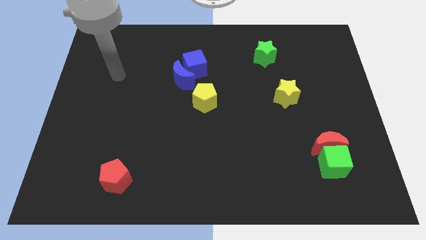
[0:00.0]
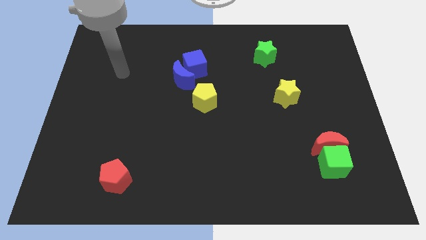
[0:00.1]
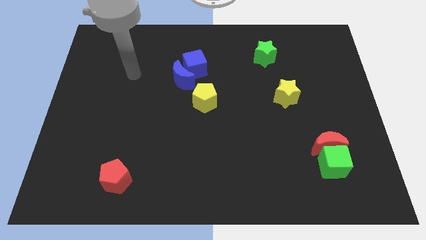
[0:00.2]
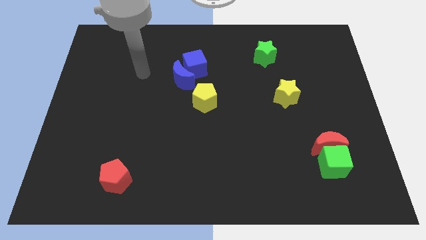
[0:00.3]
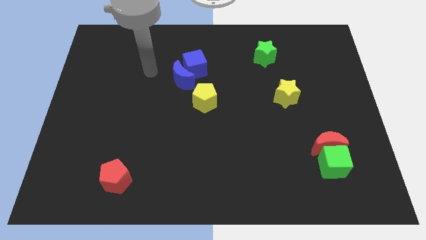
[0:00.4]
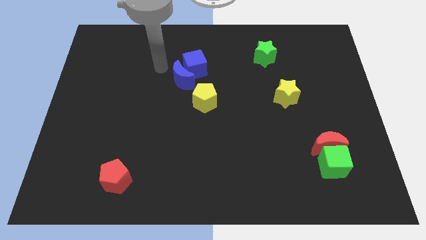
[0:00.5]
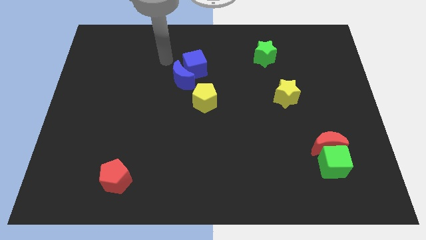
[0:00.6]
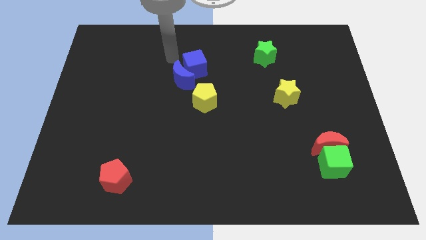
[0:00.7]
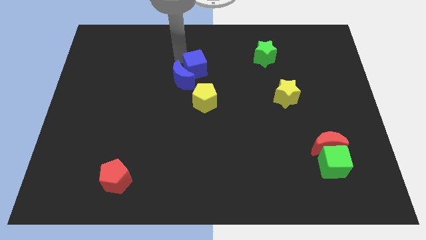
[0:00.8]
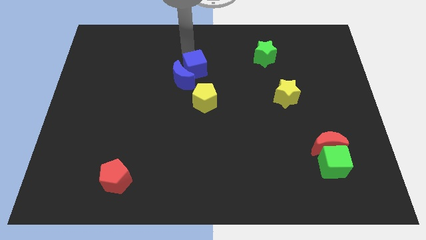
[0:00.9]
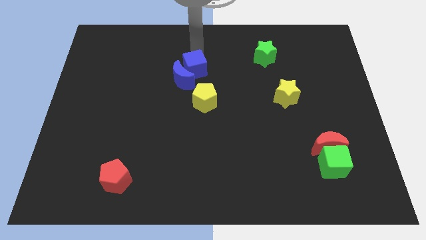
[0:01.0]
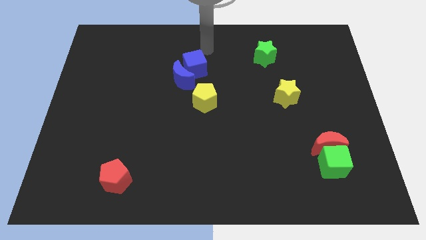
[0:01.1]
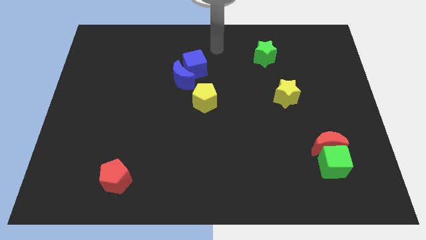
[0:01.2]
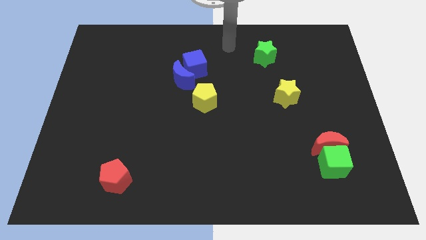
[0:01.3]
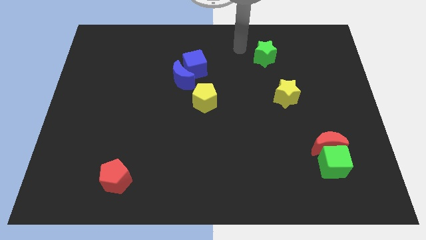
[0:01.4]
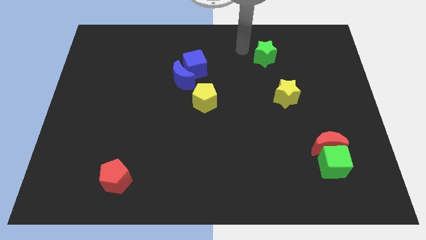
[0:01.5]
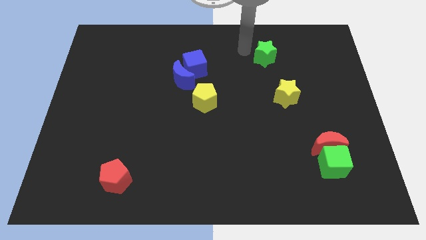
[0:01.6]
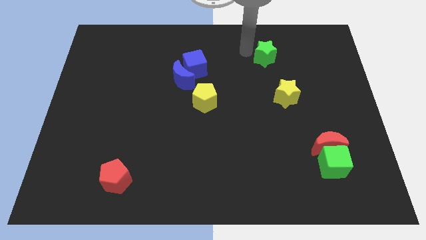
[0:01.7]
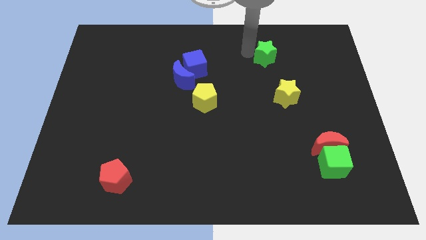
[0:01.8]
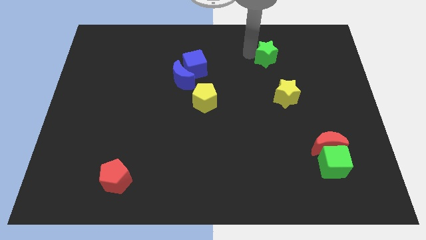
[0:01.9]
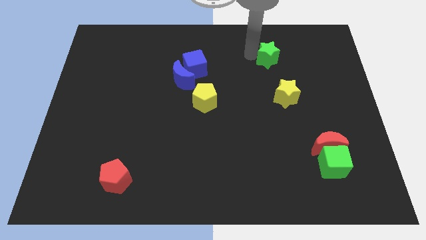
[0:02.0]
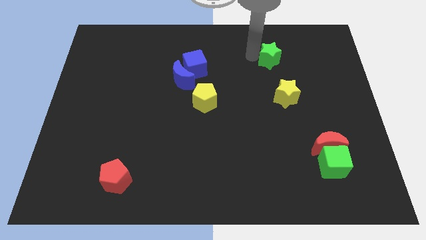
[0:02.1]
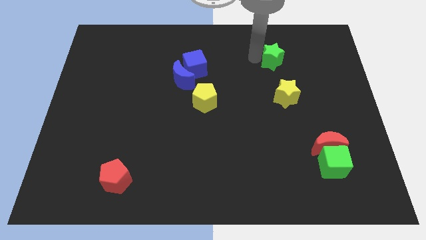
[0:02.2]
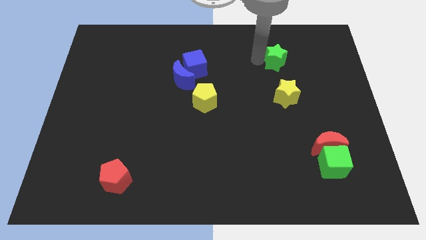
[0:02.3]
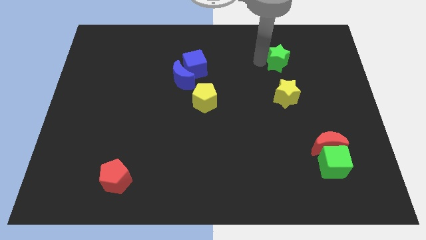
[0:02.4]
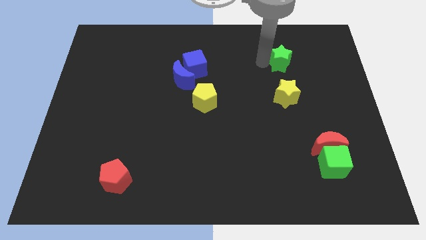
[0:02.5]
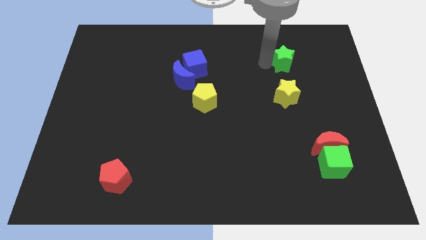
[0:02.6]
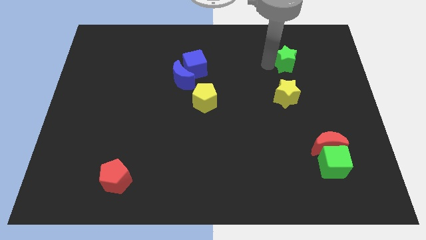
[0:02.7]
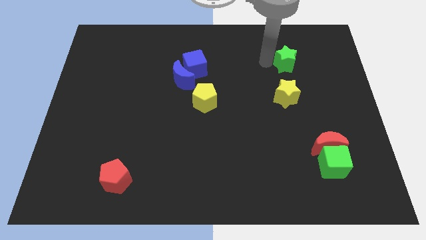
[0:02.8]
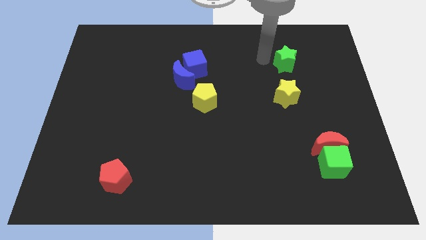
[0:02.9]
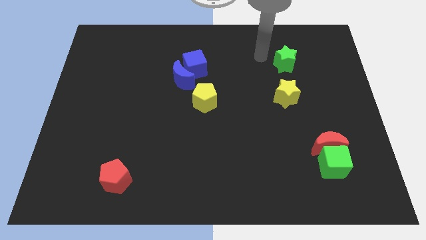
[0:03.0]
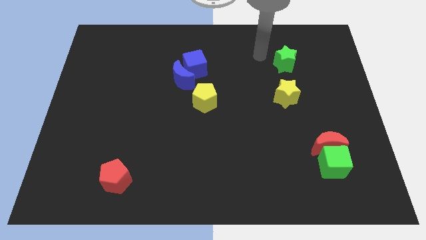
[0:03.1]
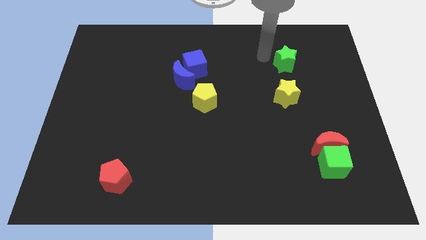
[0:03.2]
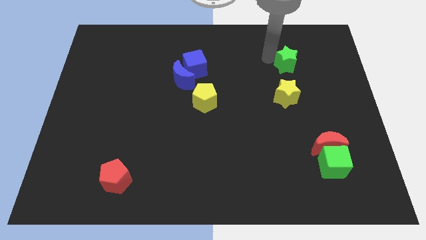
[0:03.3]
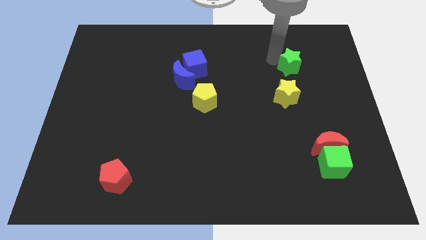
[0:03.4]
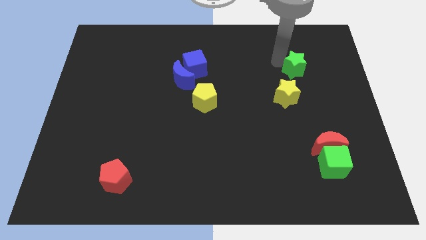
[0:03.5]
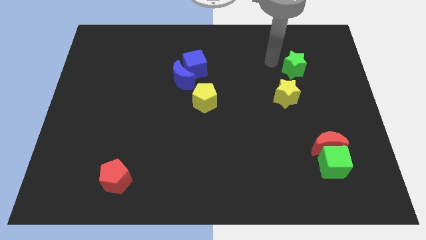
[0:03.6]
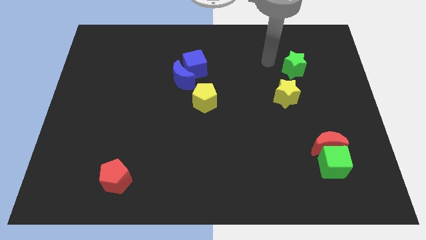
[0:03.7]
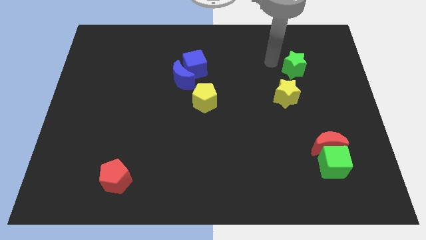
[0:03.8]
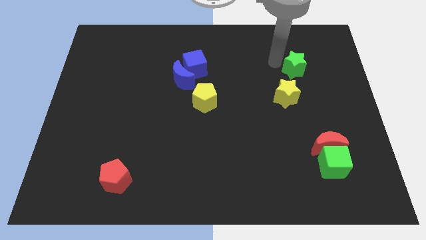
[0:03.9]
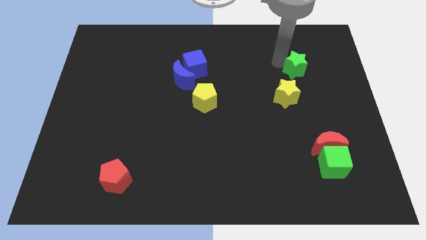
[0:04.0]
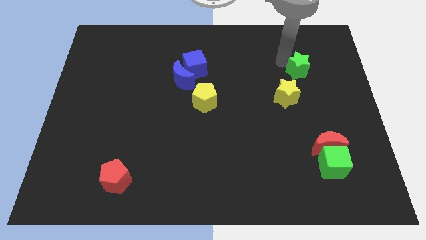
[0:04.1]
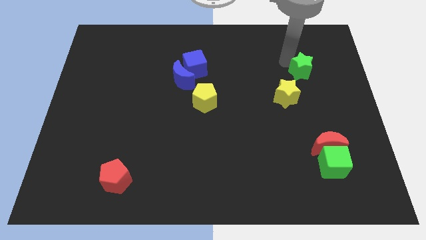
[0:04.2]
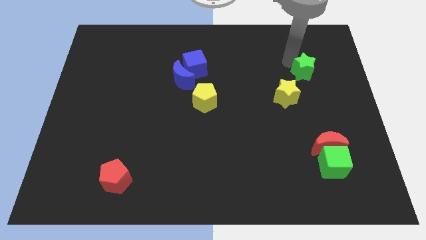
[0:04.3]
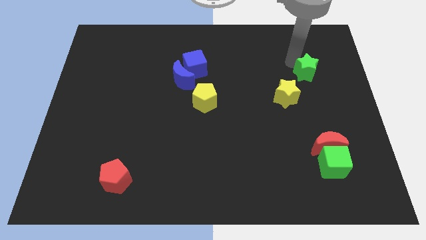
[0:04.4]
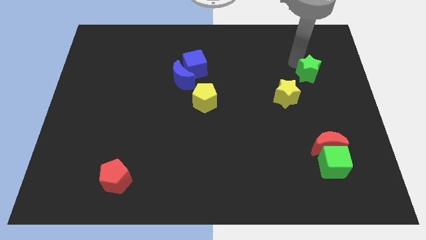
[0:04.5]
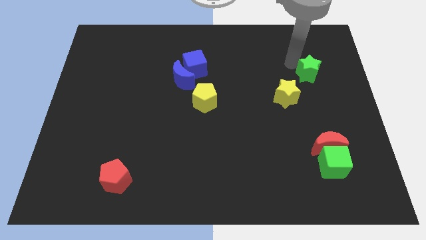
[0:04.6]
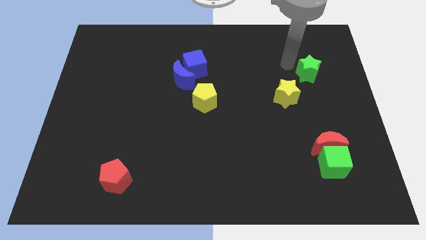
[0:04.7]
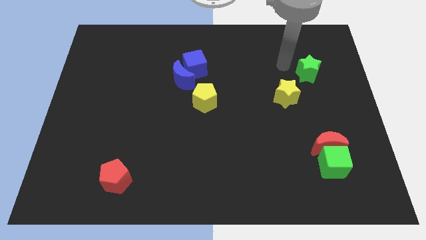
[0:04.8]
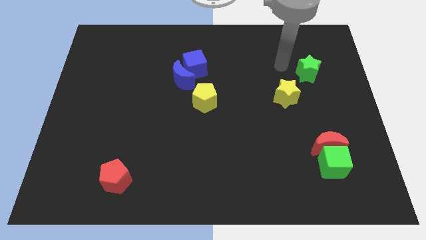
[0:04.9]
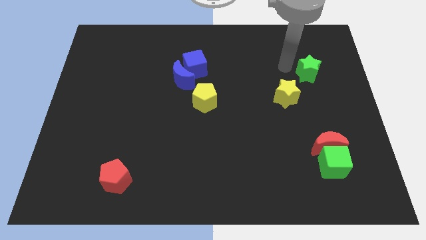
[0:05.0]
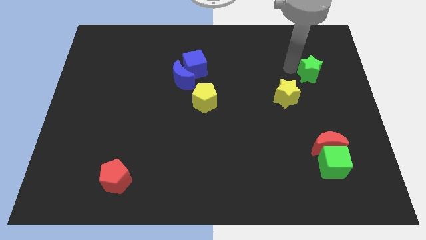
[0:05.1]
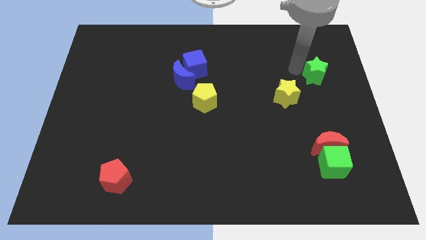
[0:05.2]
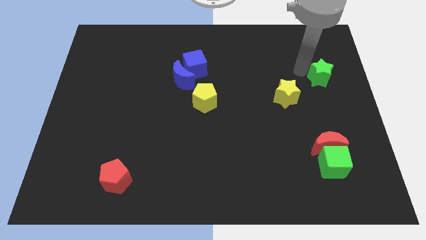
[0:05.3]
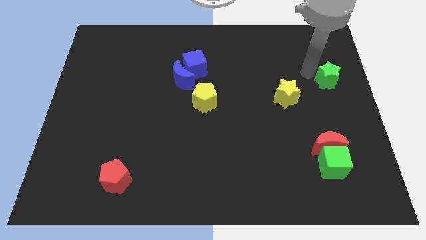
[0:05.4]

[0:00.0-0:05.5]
slide the green star to the right side of the board

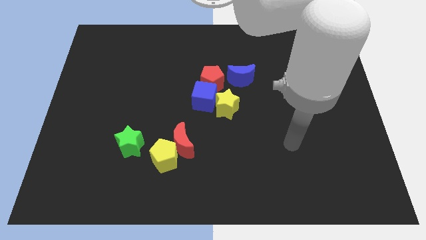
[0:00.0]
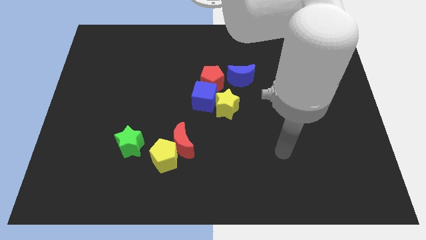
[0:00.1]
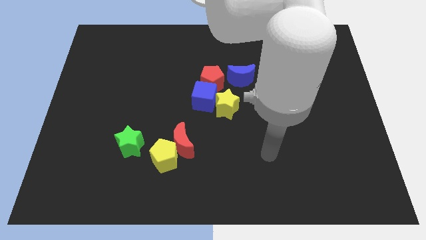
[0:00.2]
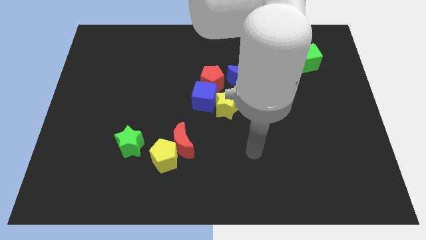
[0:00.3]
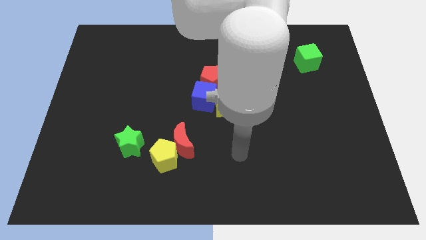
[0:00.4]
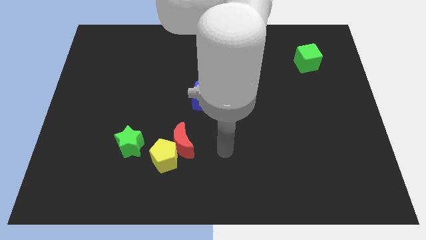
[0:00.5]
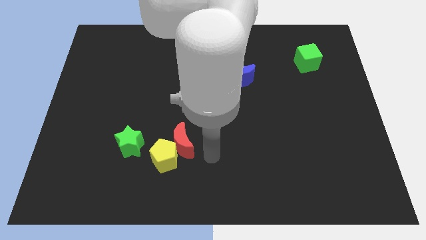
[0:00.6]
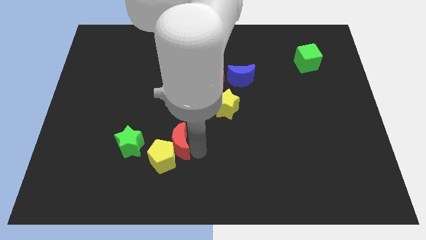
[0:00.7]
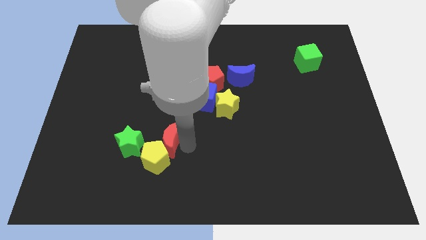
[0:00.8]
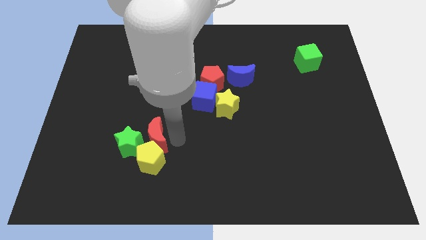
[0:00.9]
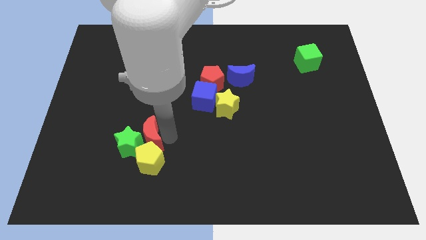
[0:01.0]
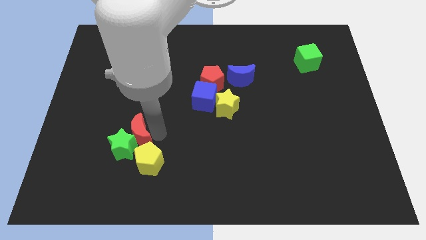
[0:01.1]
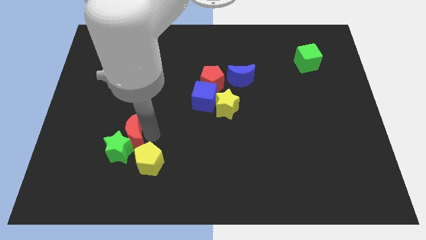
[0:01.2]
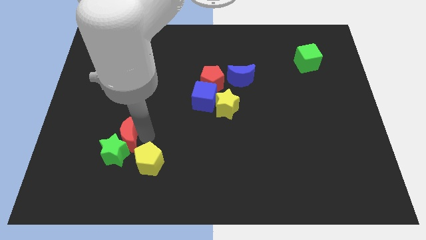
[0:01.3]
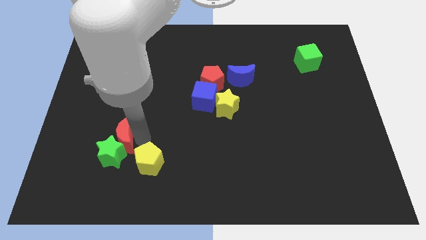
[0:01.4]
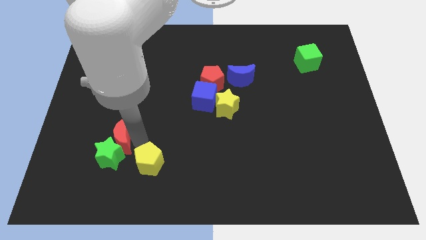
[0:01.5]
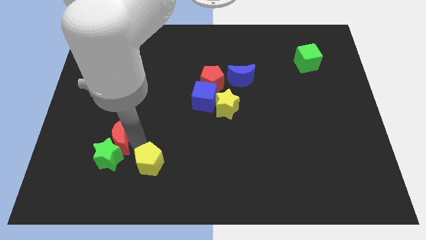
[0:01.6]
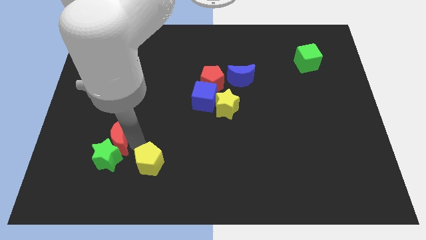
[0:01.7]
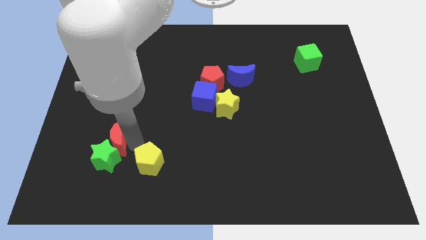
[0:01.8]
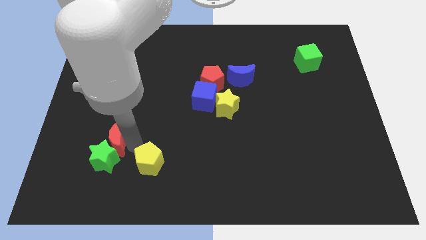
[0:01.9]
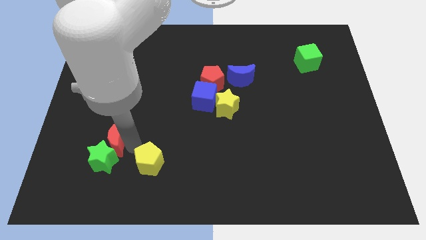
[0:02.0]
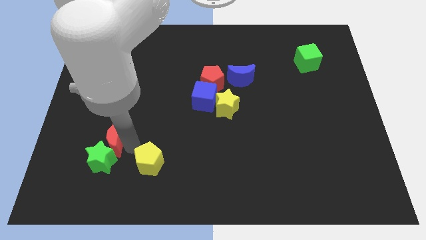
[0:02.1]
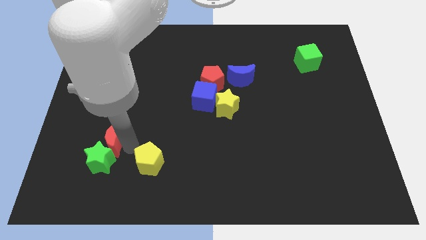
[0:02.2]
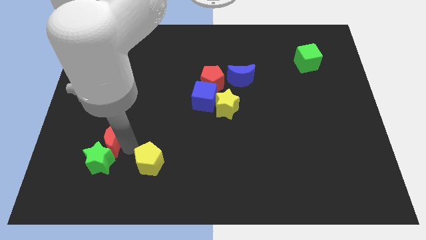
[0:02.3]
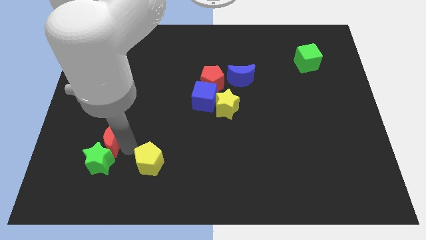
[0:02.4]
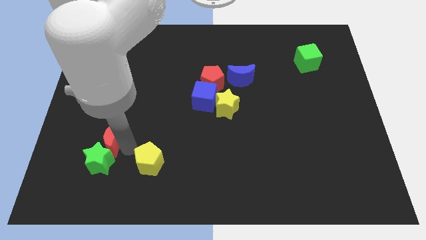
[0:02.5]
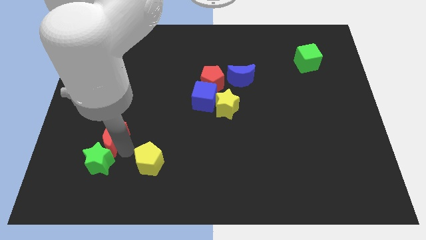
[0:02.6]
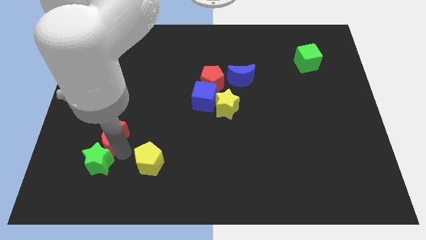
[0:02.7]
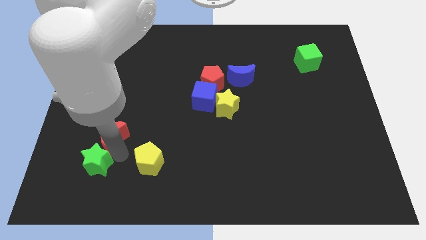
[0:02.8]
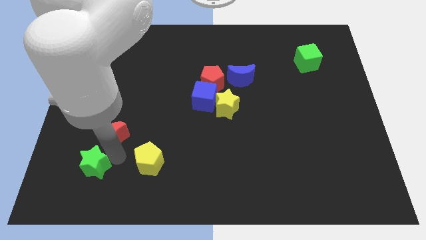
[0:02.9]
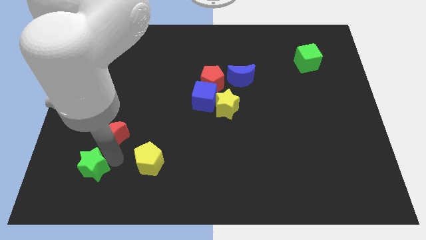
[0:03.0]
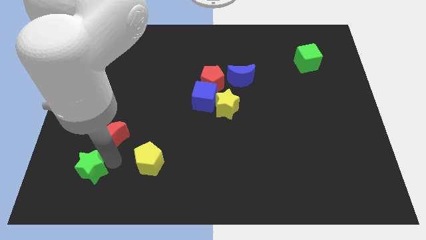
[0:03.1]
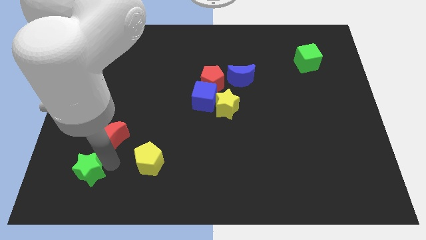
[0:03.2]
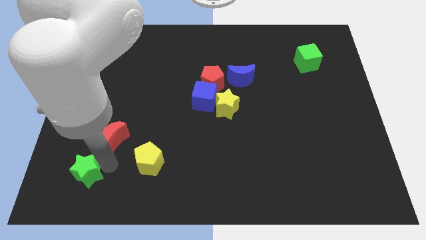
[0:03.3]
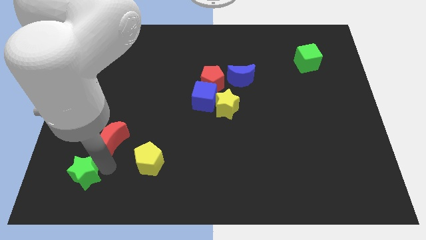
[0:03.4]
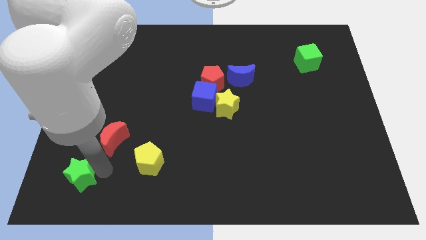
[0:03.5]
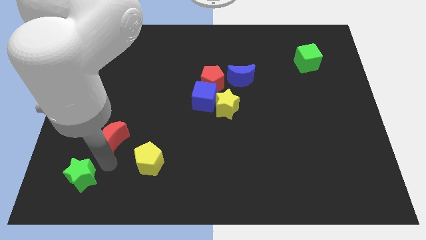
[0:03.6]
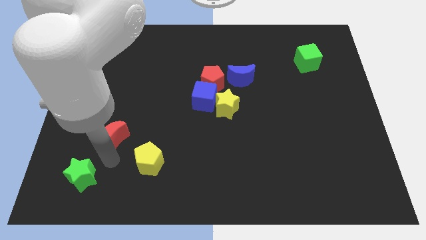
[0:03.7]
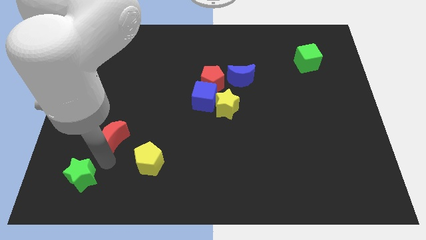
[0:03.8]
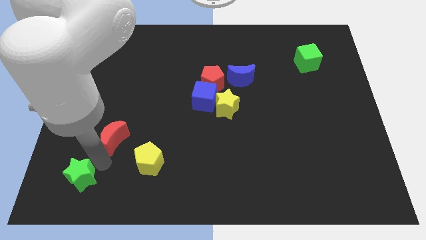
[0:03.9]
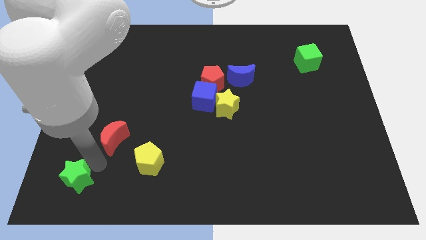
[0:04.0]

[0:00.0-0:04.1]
put the green star to the bottom left
